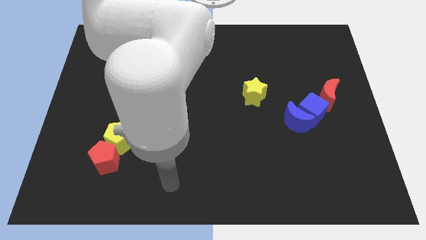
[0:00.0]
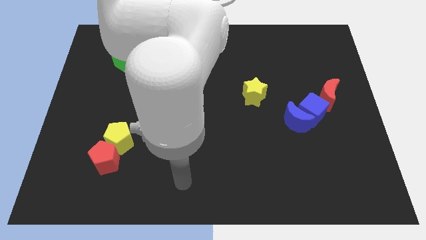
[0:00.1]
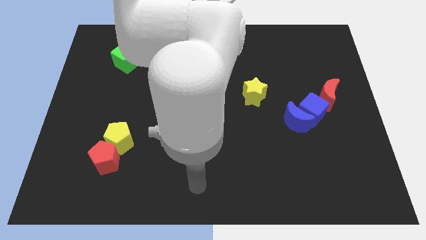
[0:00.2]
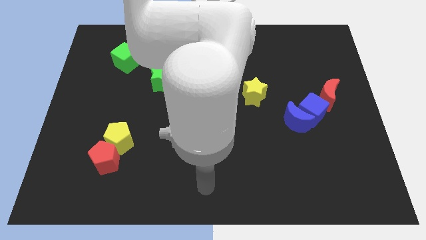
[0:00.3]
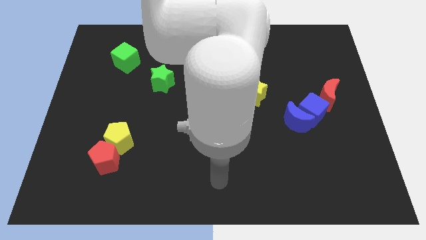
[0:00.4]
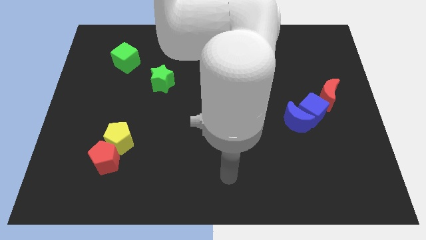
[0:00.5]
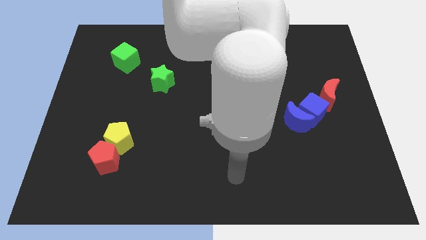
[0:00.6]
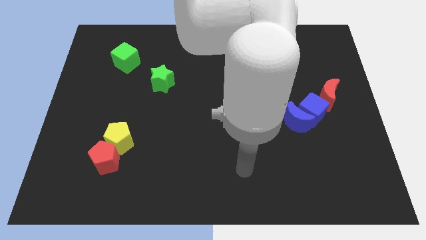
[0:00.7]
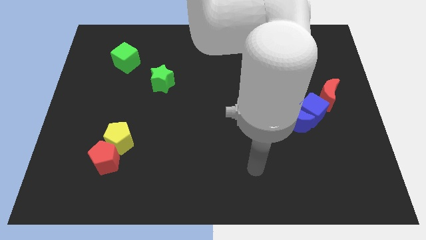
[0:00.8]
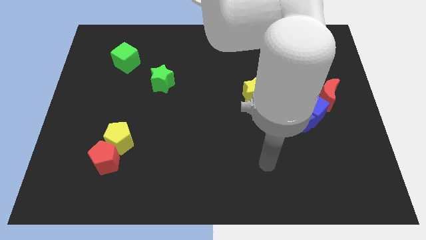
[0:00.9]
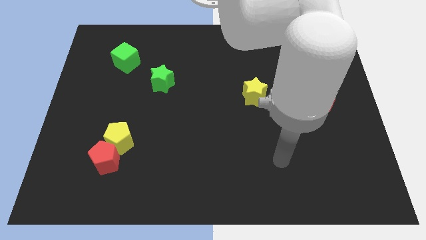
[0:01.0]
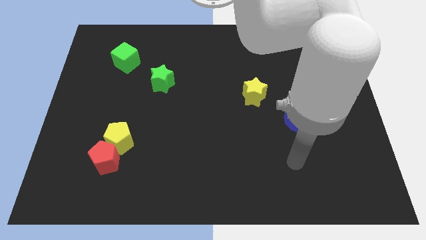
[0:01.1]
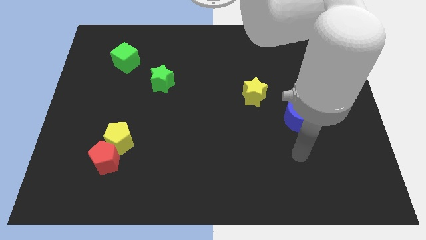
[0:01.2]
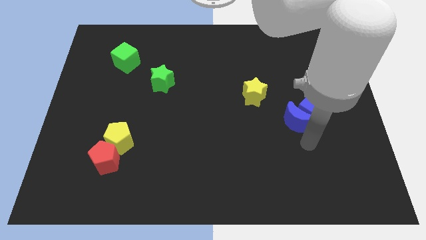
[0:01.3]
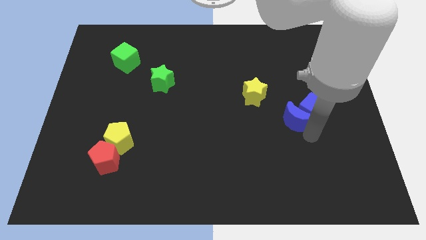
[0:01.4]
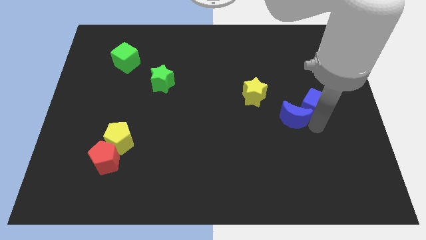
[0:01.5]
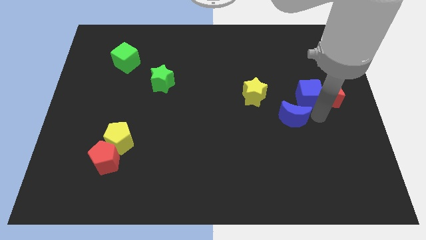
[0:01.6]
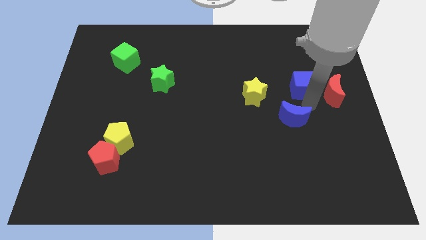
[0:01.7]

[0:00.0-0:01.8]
move the blue moon away from the blue cube

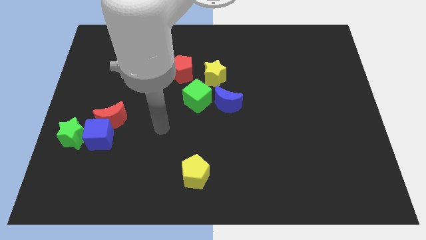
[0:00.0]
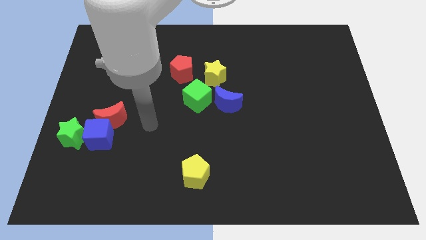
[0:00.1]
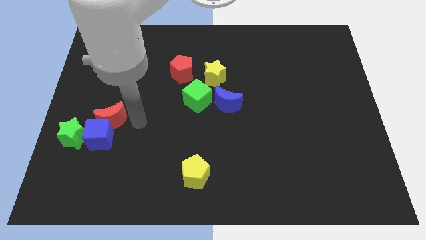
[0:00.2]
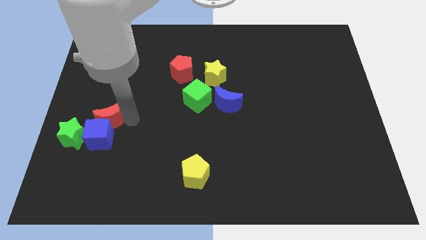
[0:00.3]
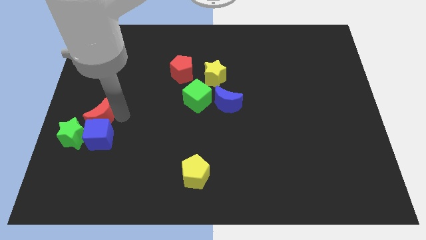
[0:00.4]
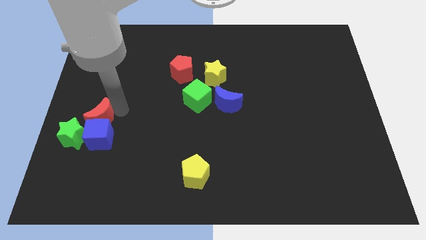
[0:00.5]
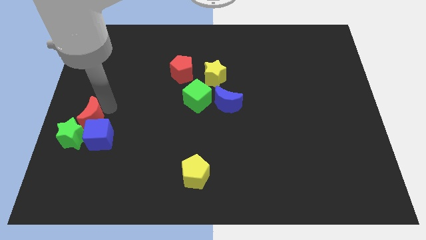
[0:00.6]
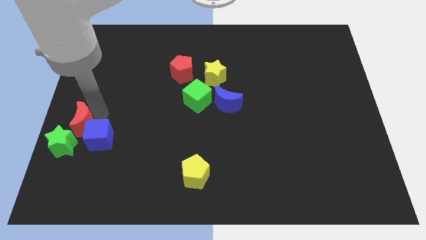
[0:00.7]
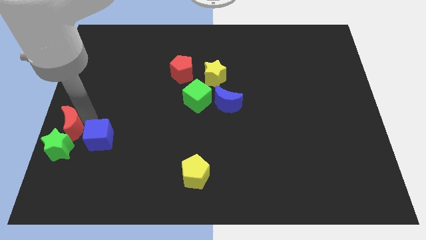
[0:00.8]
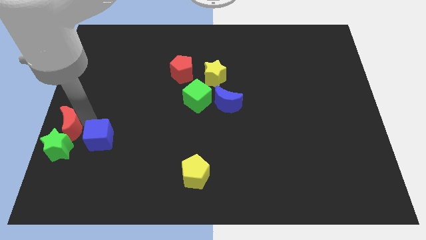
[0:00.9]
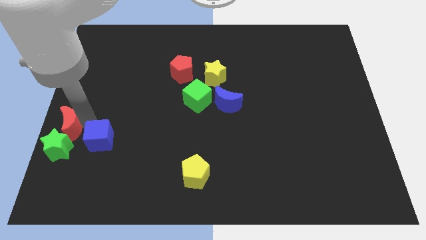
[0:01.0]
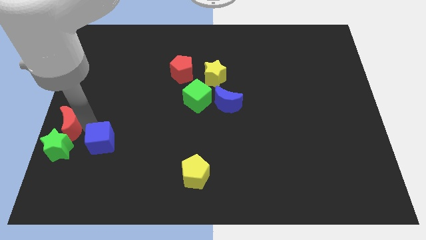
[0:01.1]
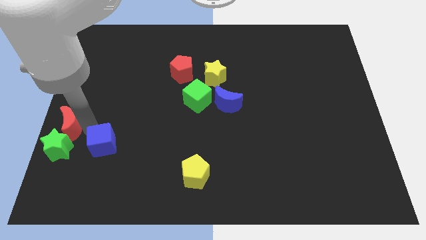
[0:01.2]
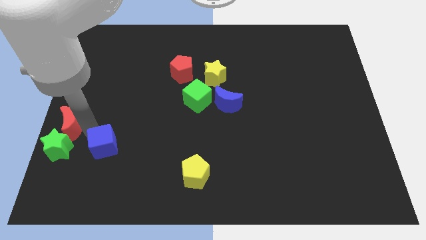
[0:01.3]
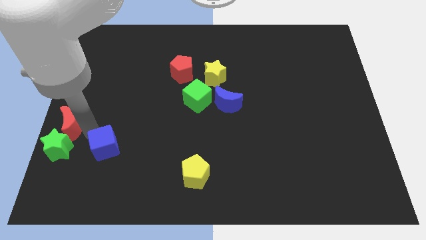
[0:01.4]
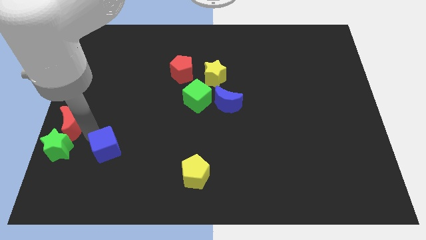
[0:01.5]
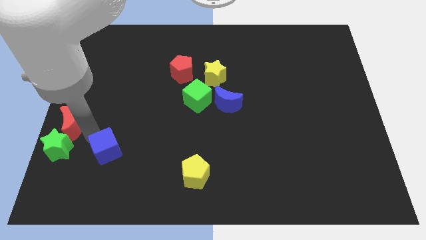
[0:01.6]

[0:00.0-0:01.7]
move the blue cube away from the red moon and green star

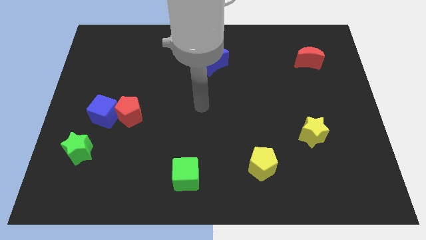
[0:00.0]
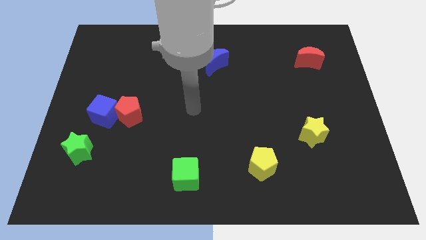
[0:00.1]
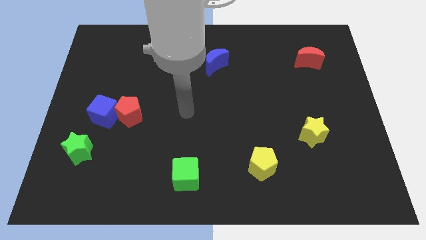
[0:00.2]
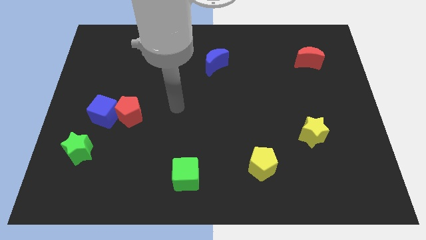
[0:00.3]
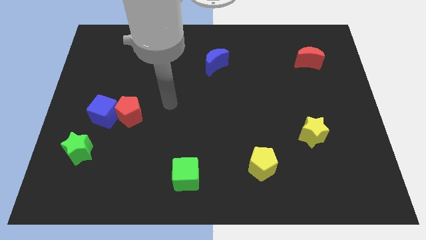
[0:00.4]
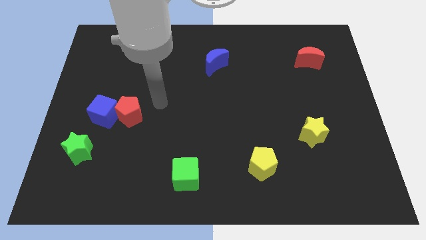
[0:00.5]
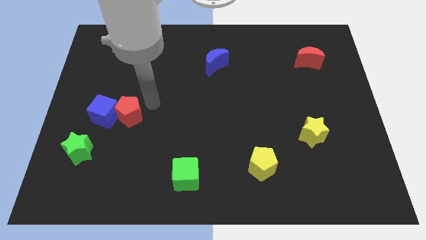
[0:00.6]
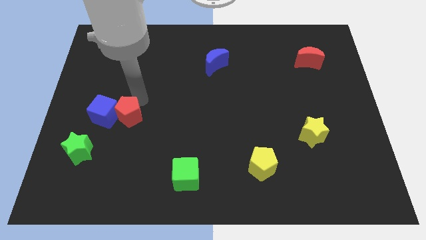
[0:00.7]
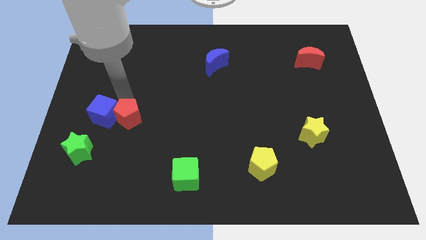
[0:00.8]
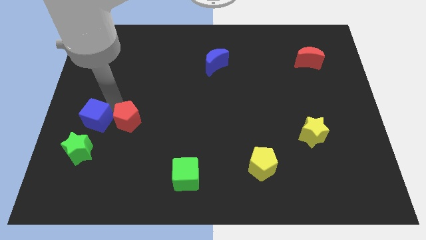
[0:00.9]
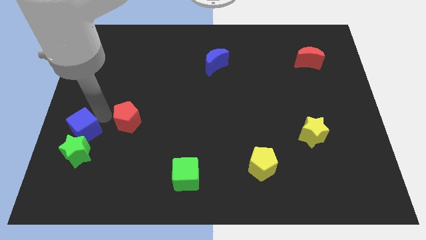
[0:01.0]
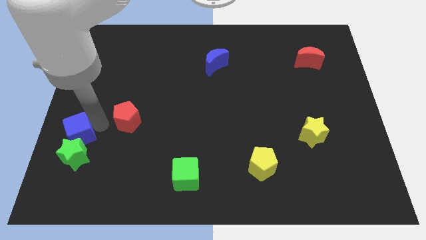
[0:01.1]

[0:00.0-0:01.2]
pull the red pentagon apart from the blue cube

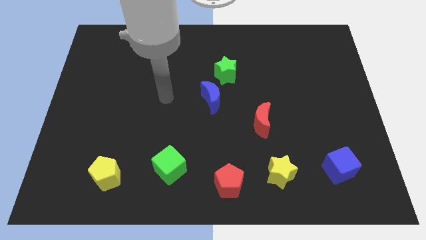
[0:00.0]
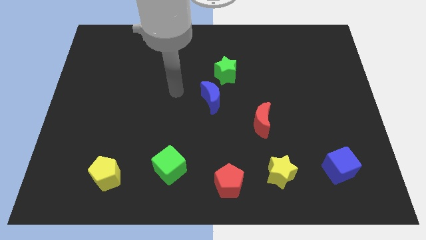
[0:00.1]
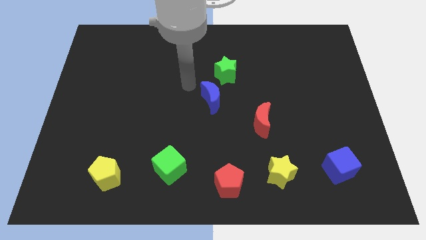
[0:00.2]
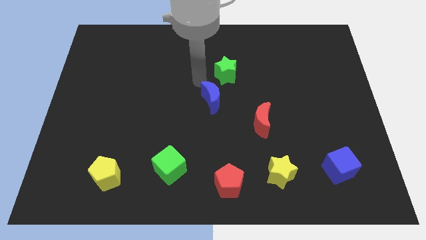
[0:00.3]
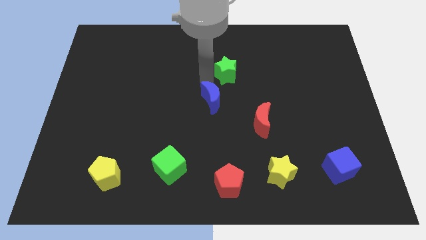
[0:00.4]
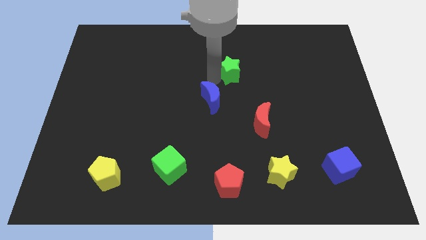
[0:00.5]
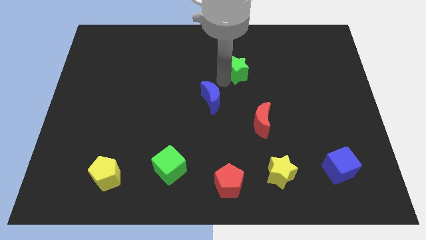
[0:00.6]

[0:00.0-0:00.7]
move the blue moon away from the green star

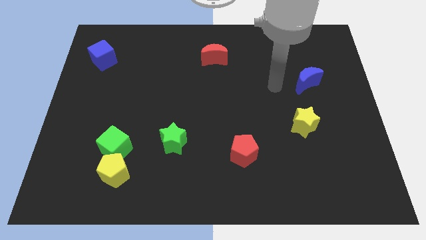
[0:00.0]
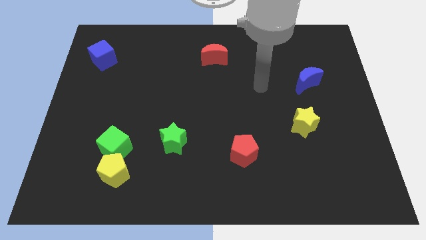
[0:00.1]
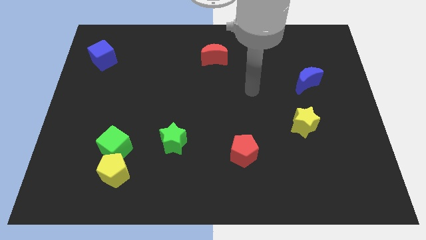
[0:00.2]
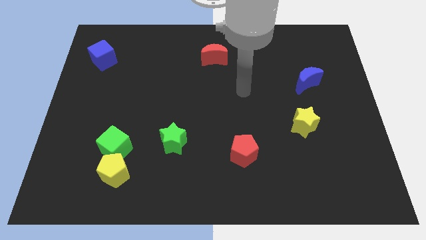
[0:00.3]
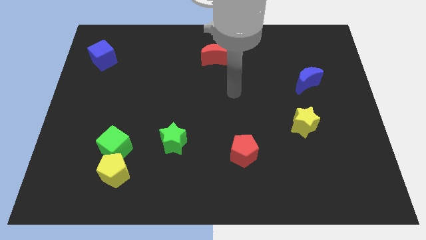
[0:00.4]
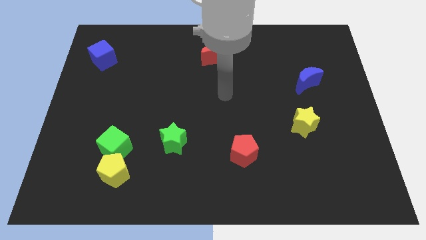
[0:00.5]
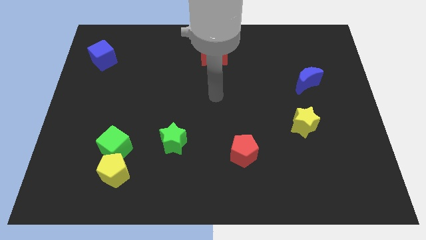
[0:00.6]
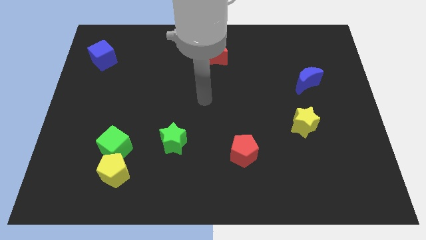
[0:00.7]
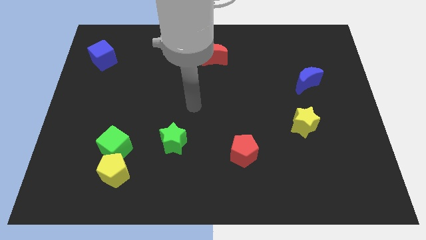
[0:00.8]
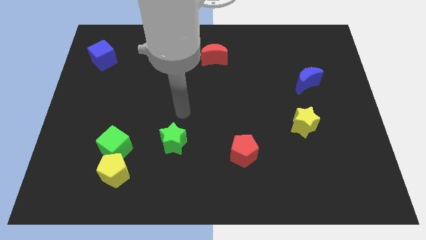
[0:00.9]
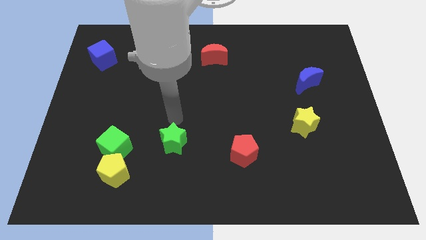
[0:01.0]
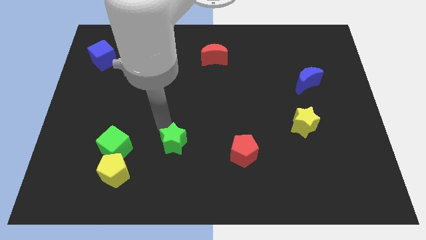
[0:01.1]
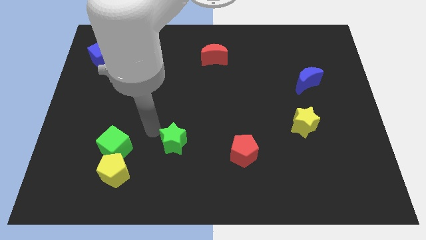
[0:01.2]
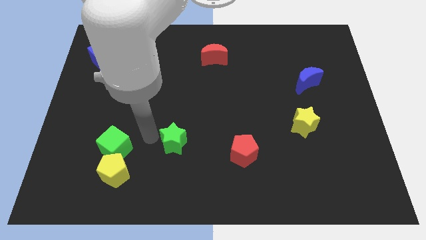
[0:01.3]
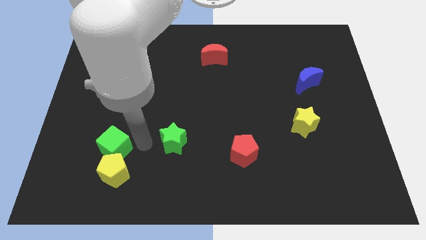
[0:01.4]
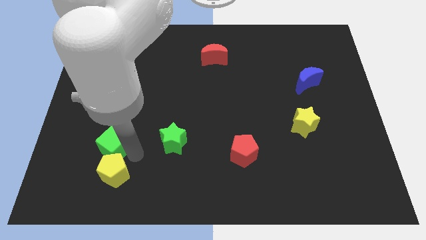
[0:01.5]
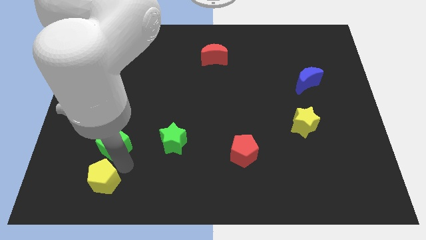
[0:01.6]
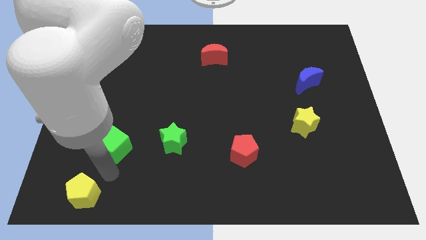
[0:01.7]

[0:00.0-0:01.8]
pull the green cube apart from the yellow pentagon

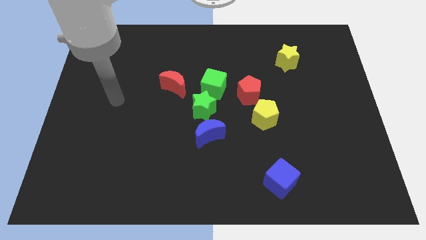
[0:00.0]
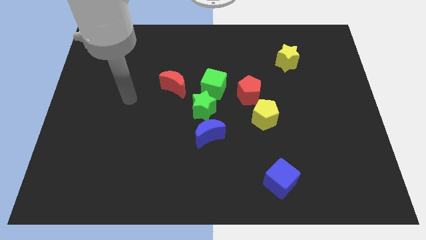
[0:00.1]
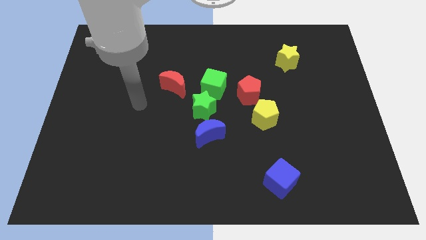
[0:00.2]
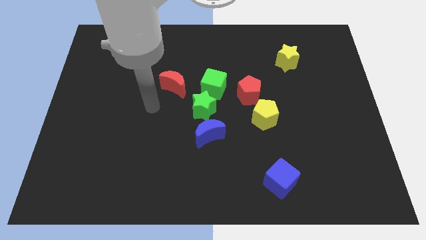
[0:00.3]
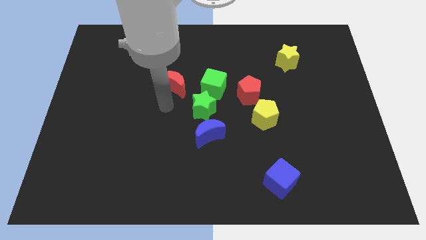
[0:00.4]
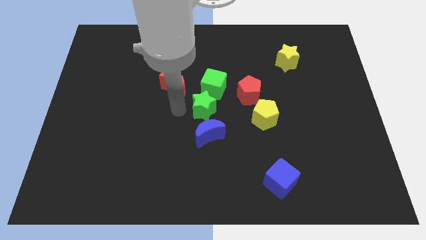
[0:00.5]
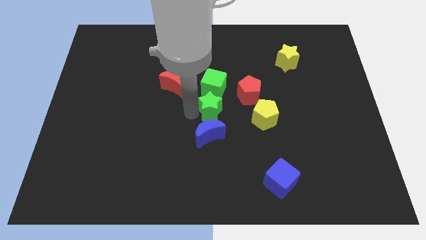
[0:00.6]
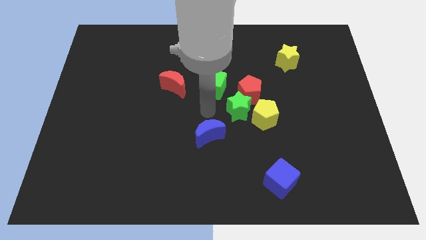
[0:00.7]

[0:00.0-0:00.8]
pull the blue moon apart from the green star

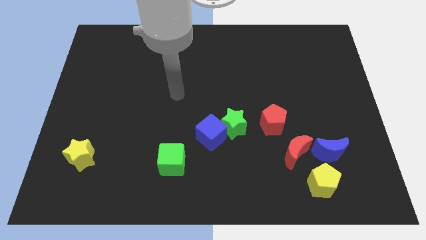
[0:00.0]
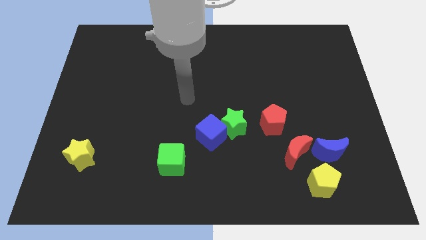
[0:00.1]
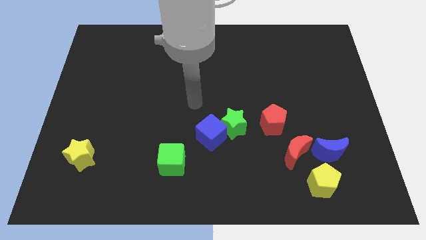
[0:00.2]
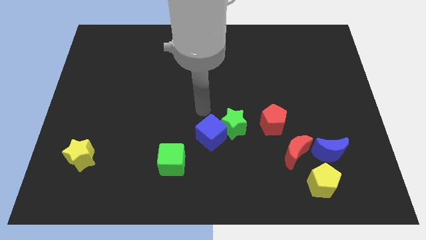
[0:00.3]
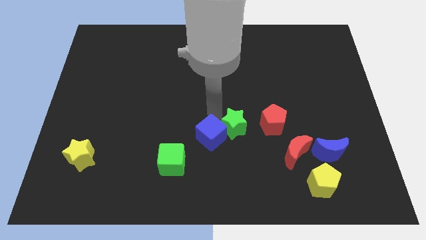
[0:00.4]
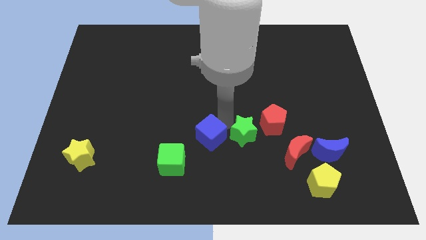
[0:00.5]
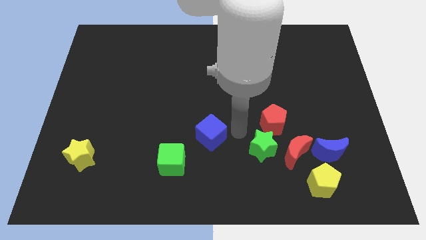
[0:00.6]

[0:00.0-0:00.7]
pull the blue cube apart from the green star

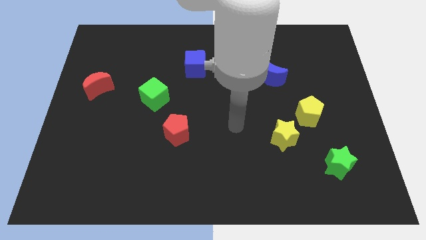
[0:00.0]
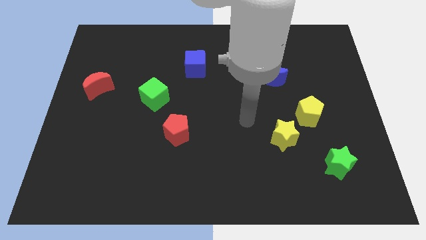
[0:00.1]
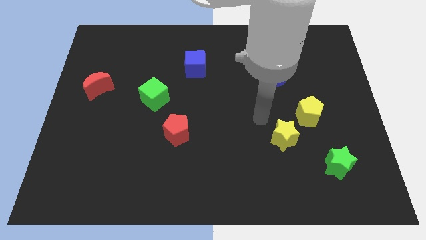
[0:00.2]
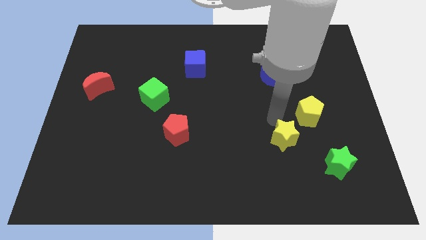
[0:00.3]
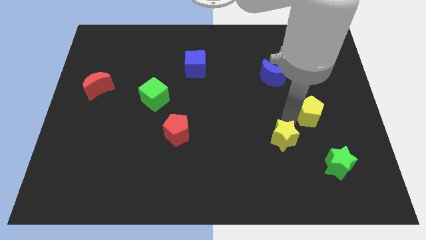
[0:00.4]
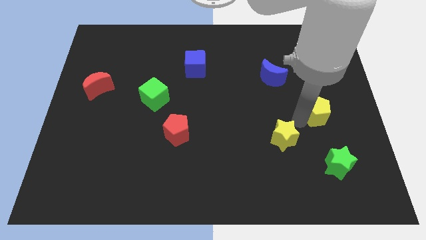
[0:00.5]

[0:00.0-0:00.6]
pull the yellow star apart from the yellow pentagon
